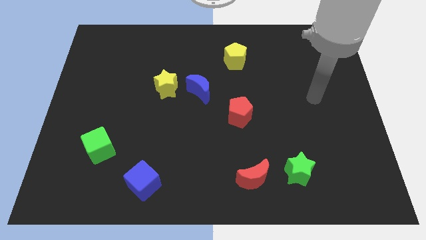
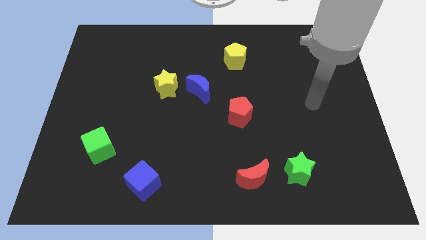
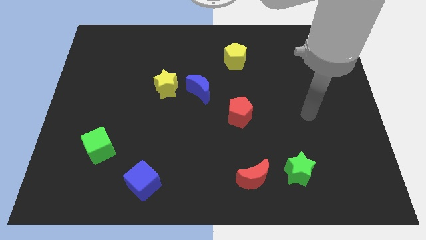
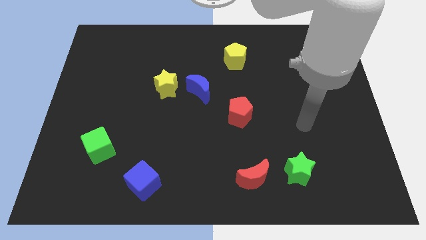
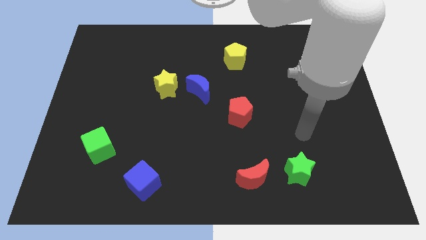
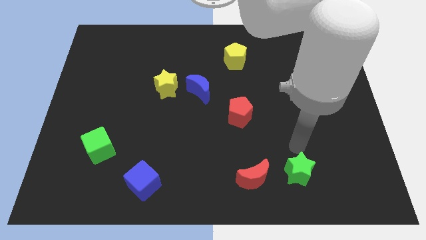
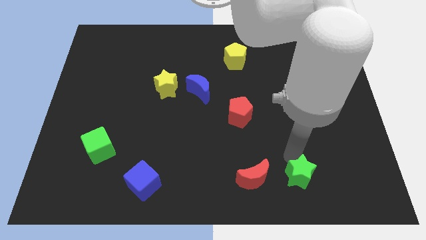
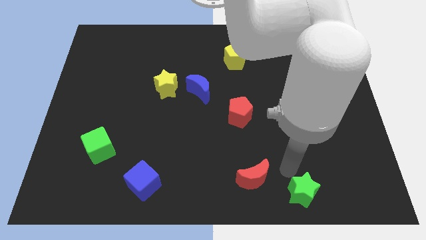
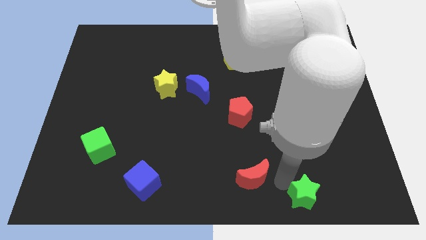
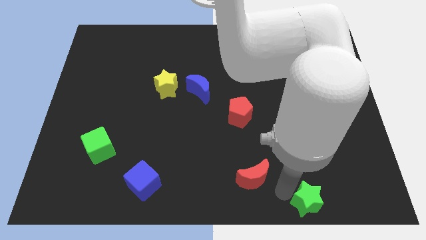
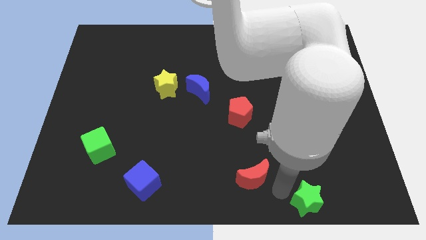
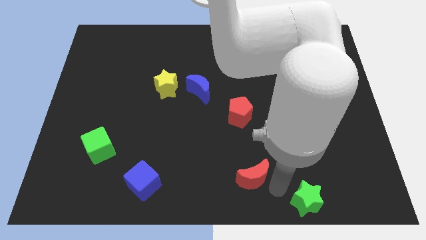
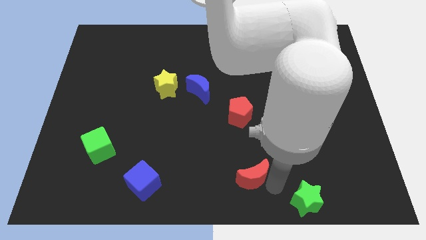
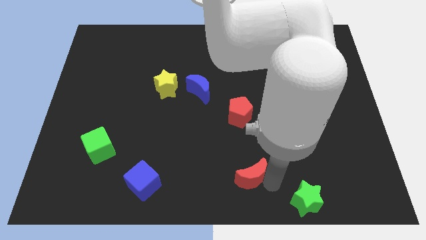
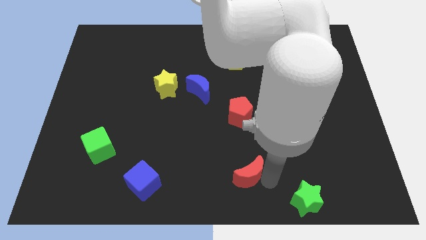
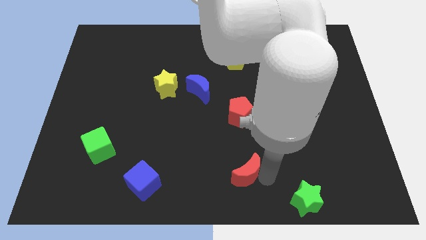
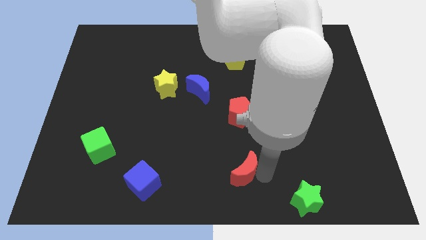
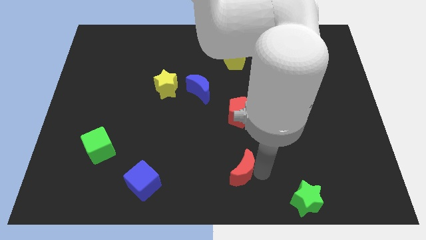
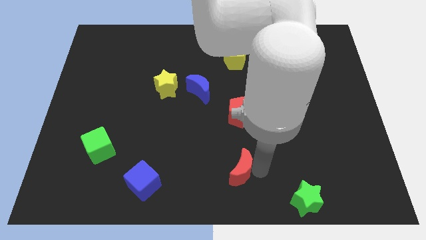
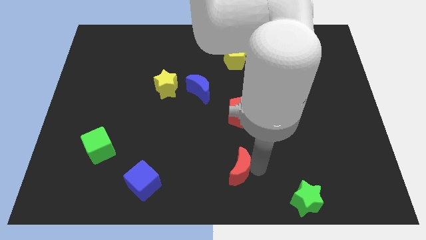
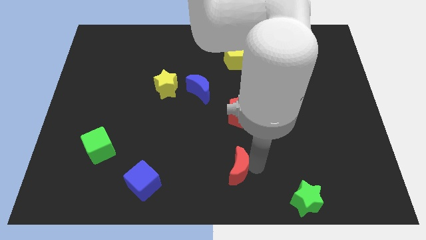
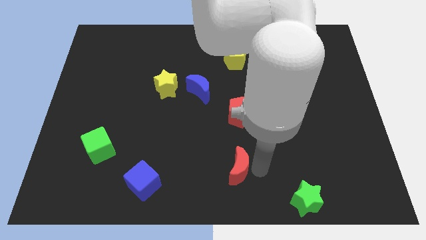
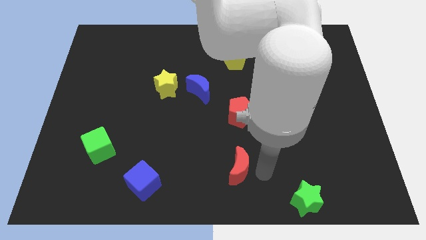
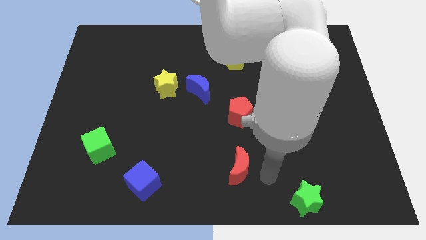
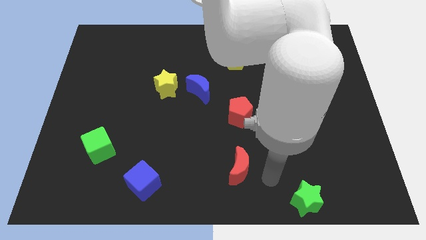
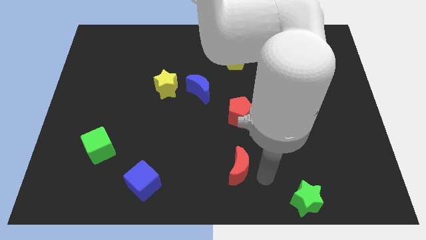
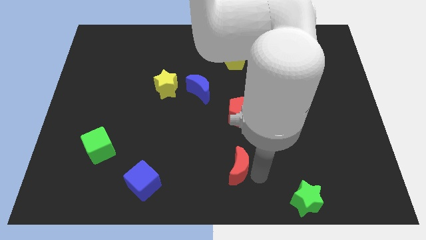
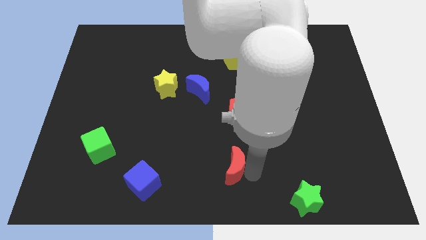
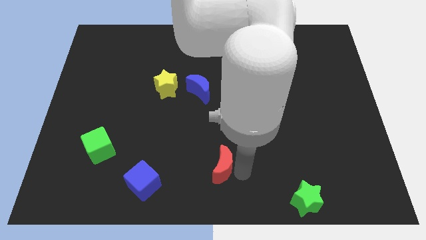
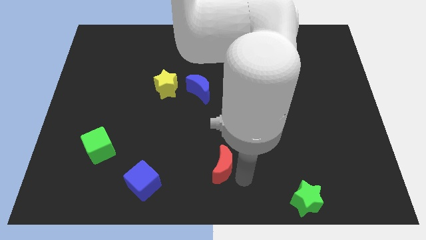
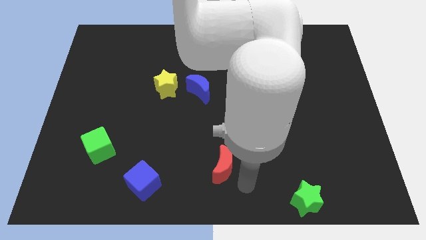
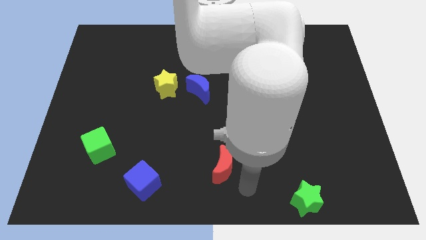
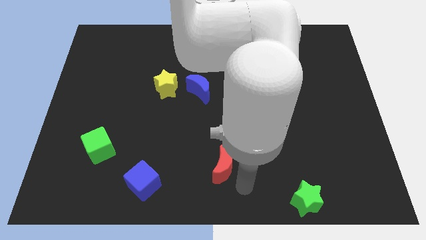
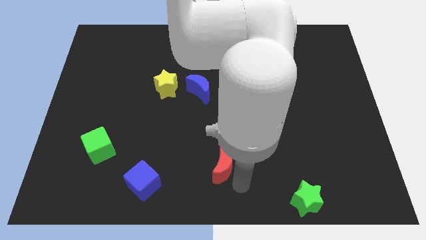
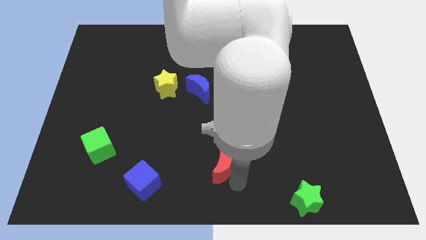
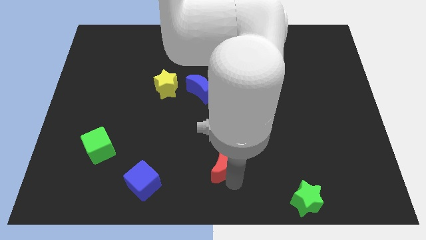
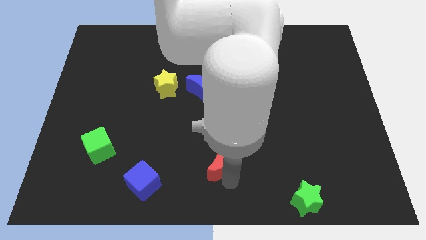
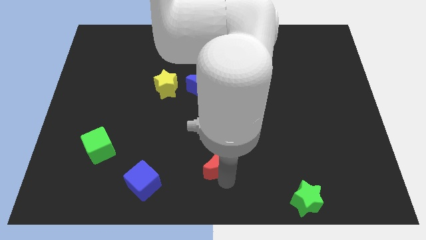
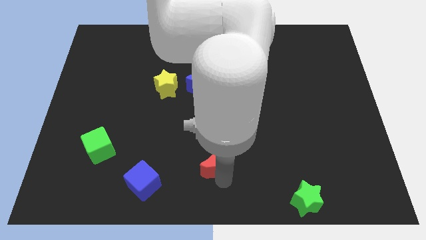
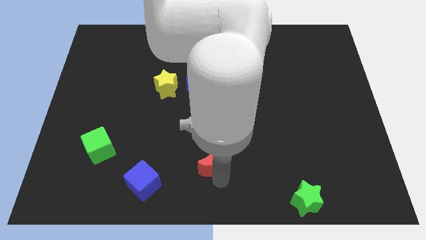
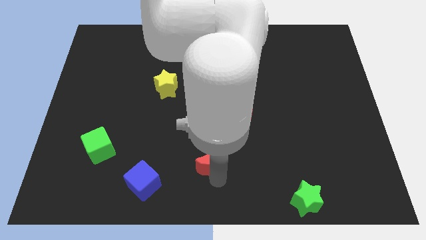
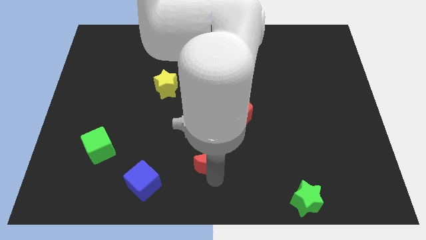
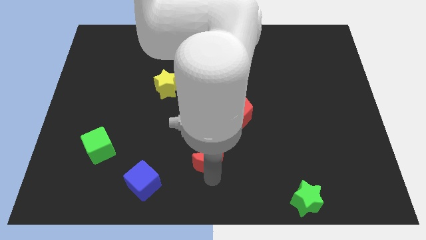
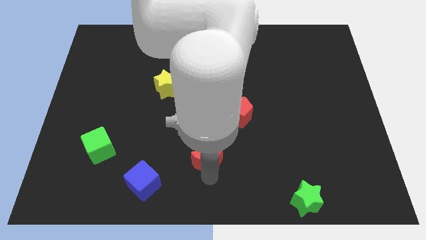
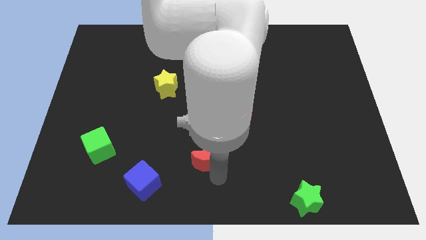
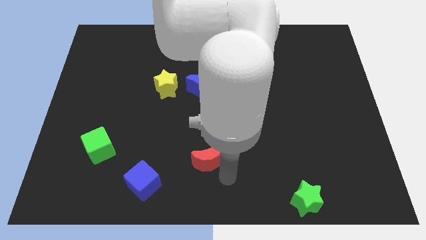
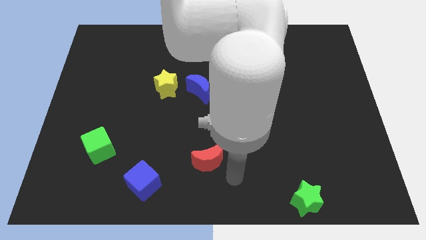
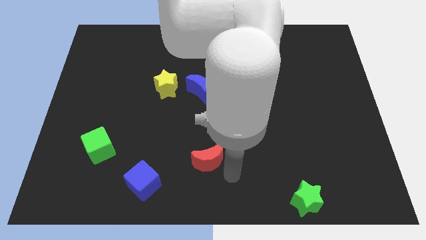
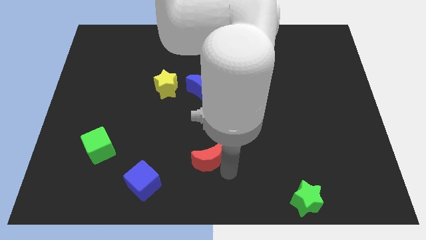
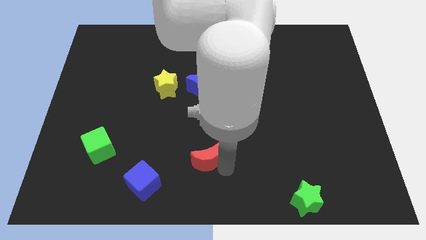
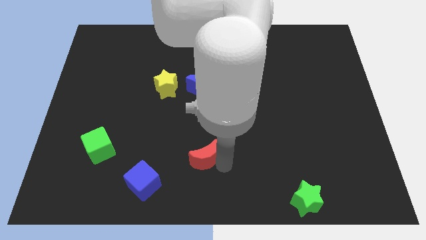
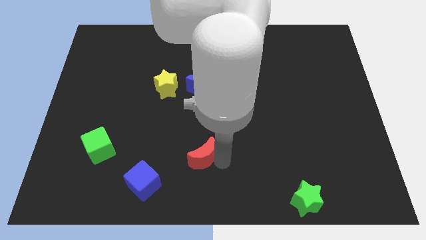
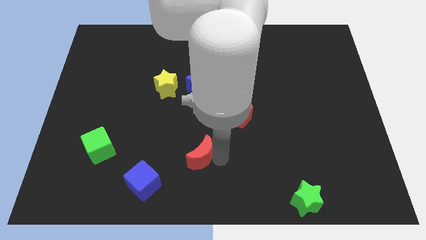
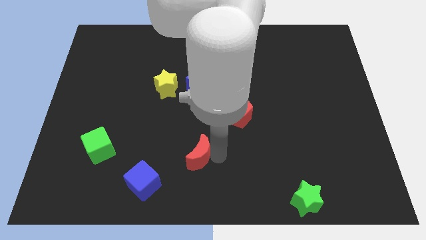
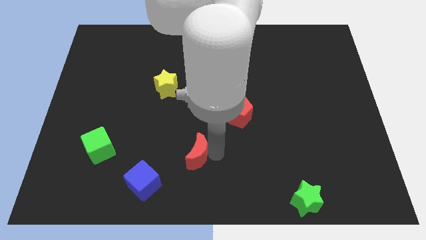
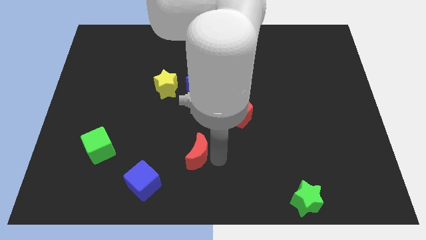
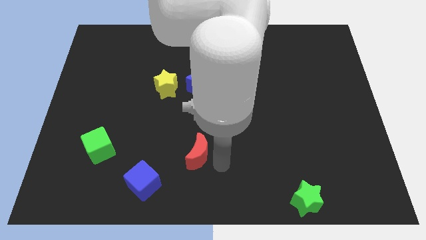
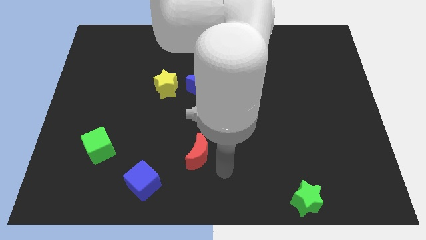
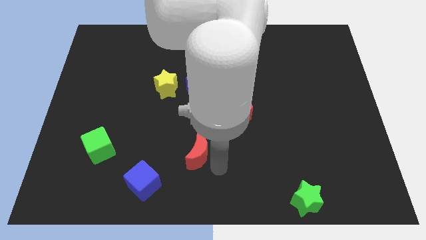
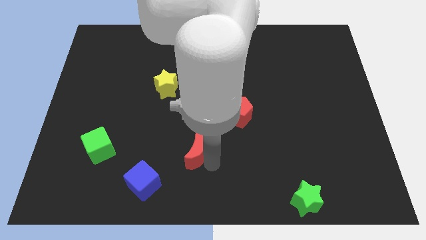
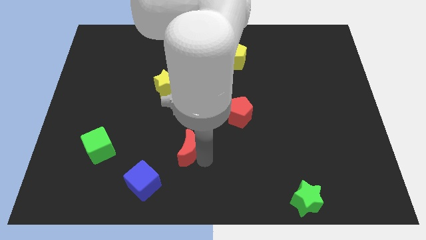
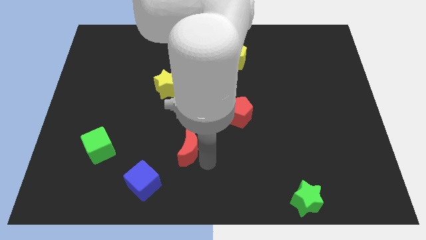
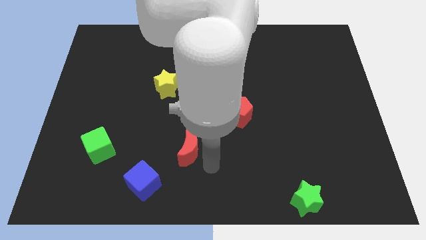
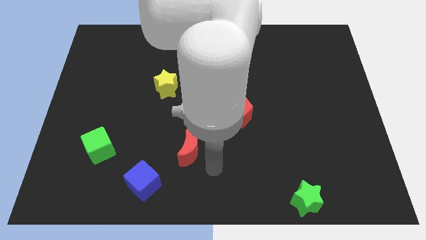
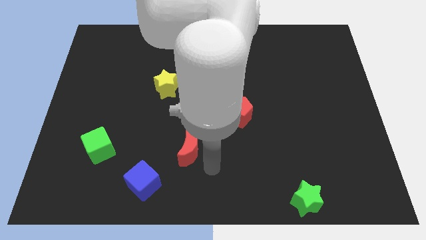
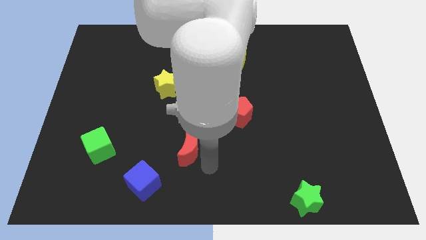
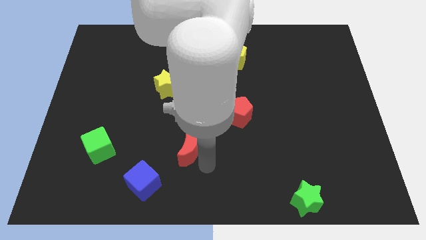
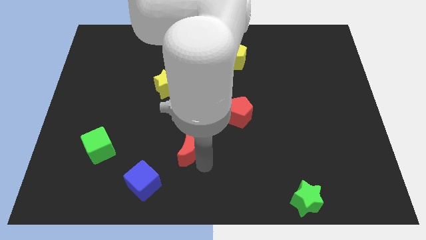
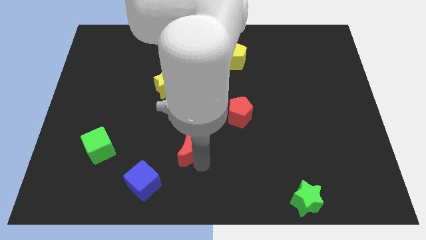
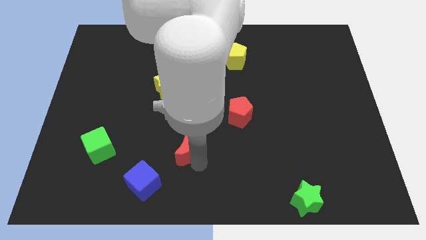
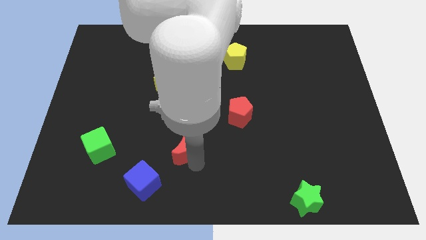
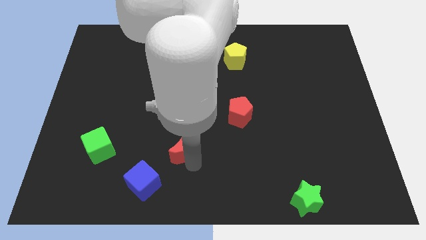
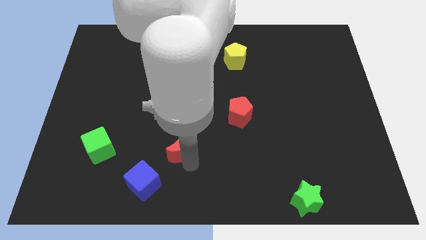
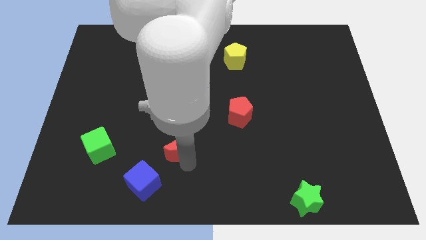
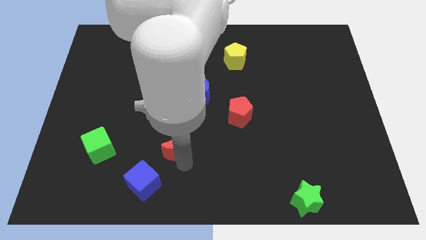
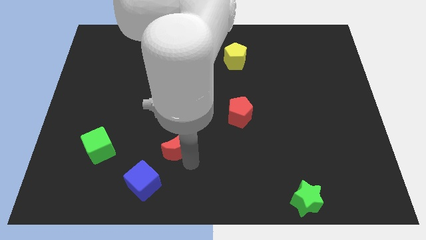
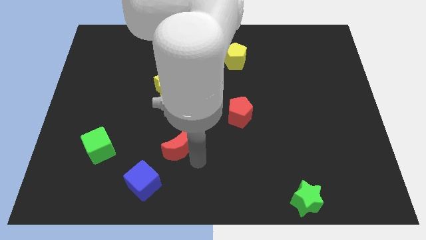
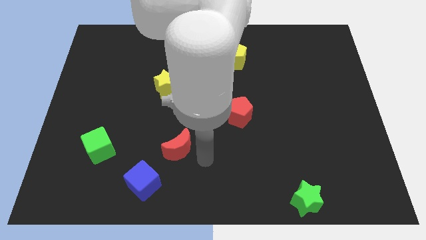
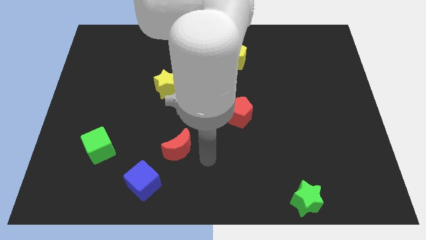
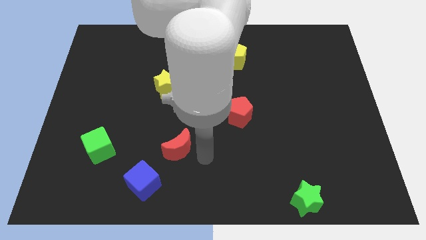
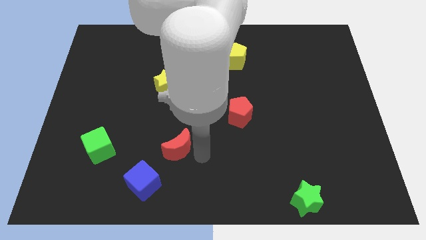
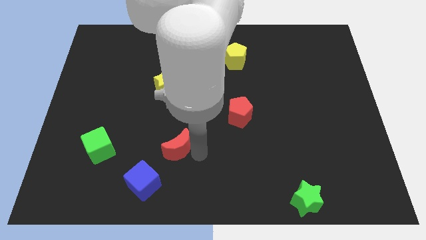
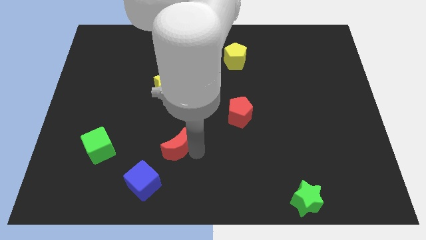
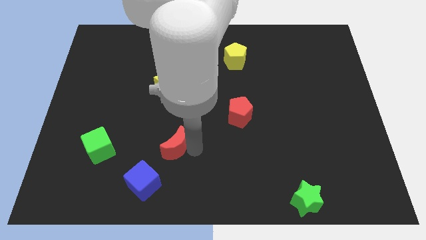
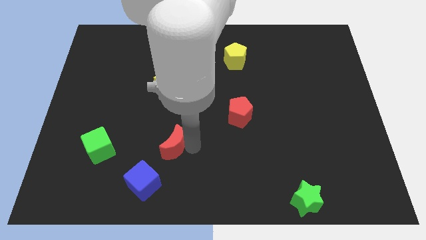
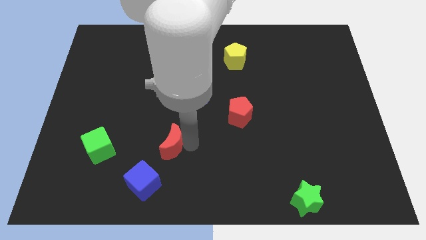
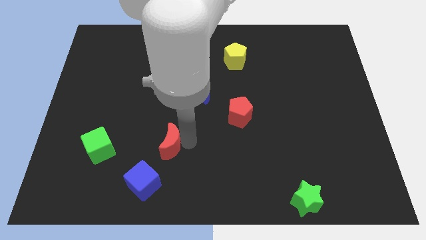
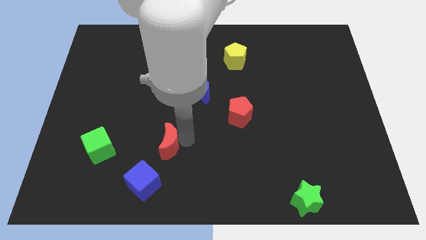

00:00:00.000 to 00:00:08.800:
push the red moon to the top side of the blue cube
